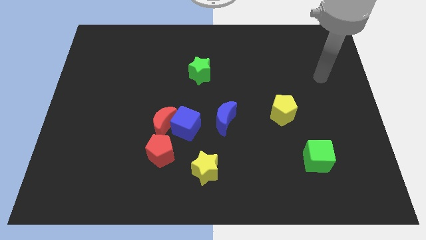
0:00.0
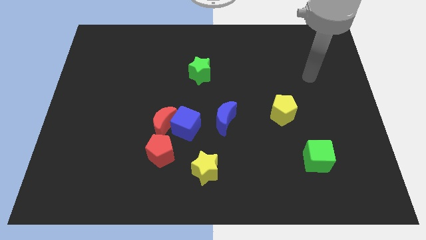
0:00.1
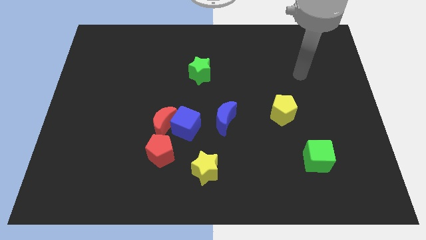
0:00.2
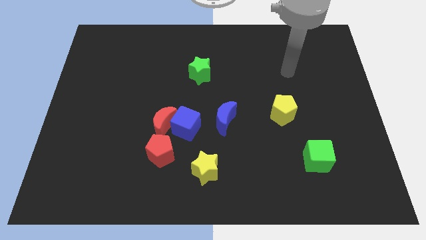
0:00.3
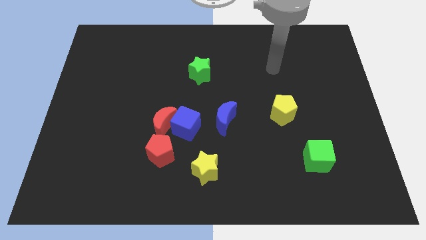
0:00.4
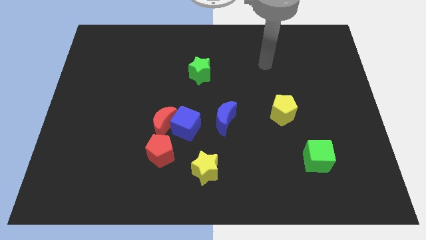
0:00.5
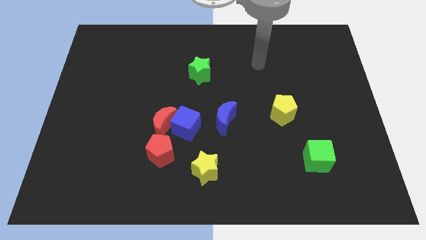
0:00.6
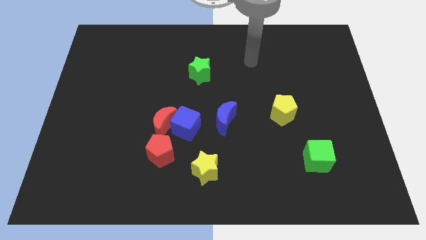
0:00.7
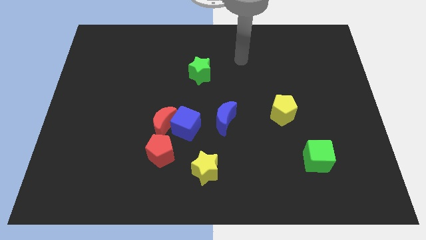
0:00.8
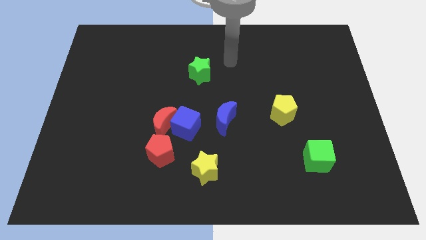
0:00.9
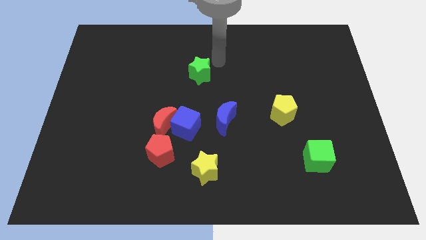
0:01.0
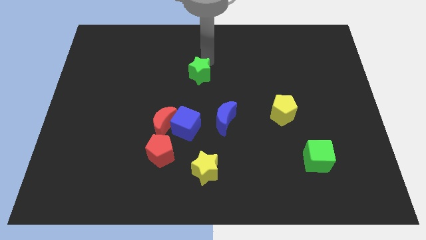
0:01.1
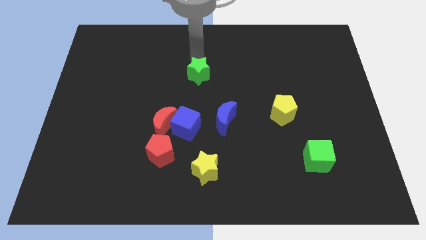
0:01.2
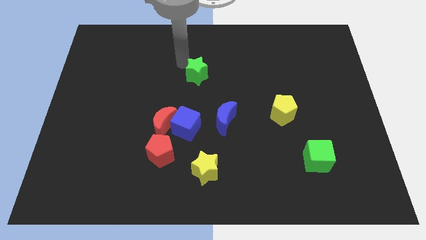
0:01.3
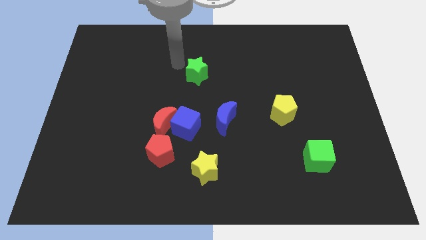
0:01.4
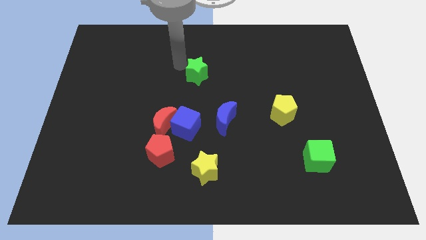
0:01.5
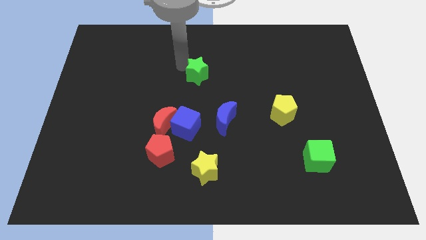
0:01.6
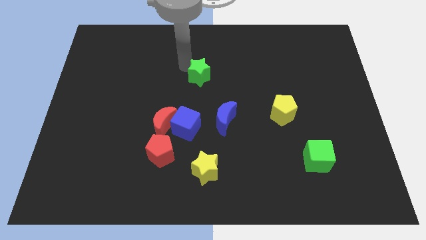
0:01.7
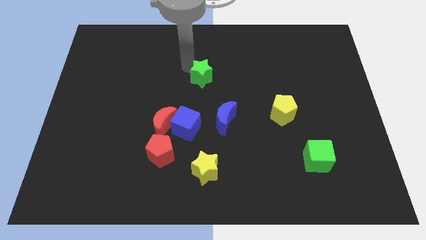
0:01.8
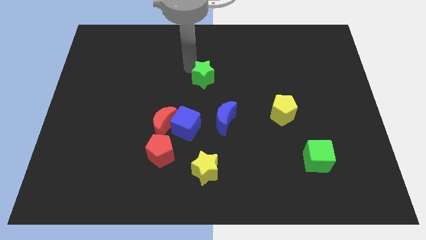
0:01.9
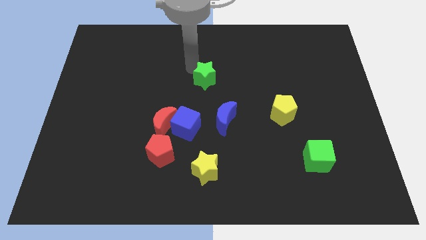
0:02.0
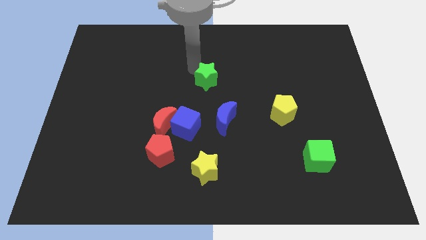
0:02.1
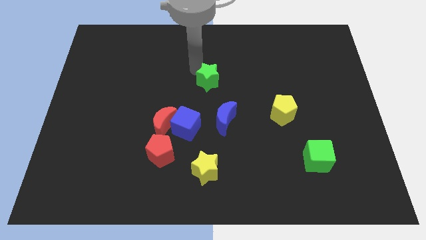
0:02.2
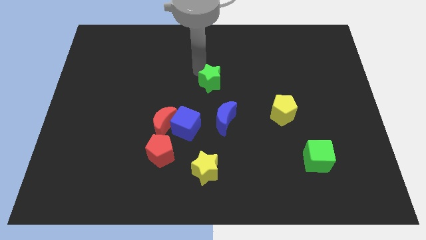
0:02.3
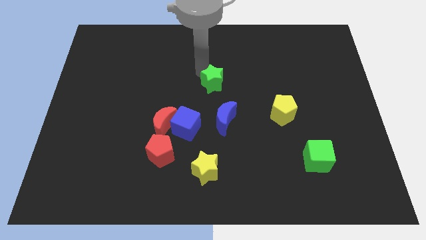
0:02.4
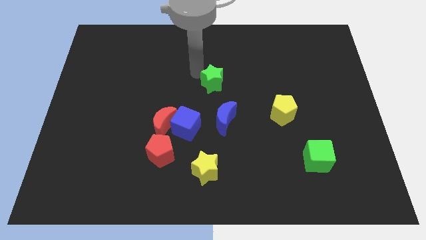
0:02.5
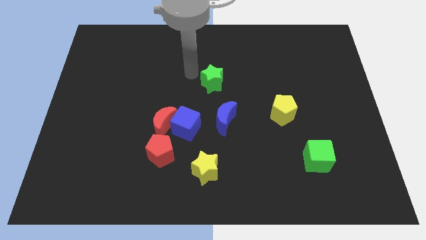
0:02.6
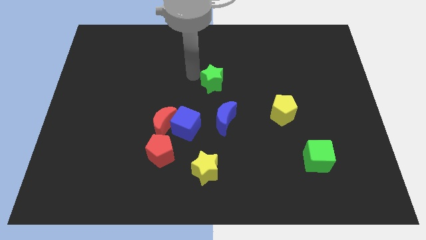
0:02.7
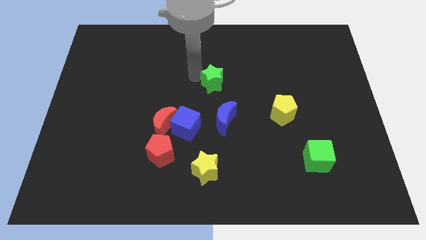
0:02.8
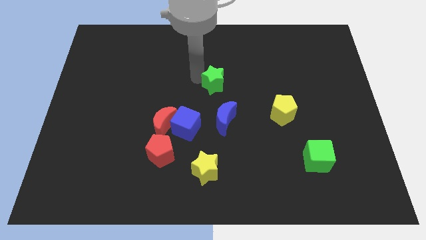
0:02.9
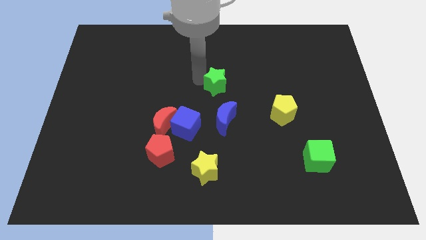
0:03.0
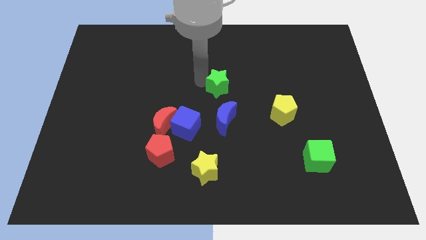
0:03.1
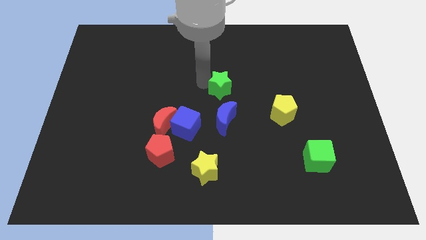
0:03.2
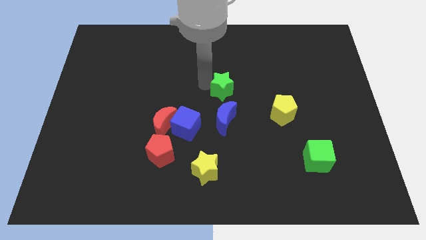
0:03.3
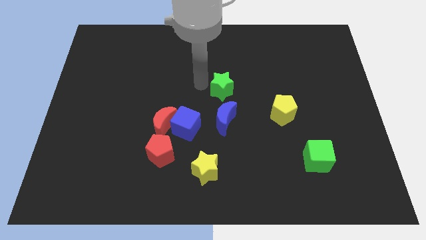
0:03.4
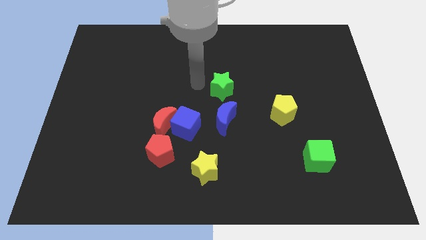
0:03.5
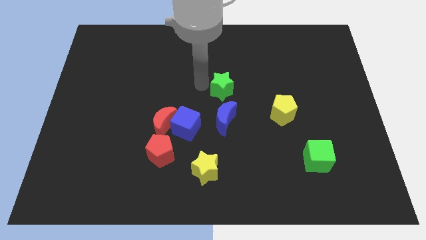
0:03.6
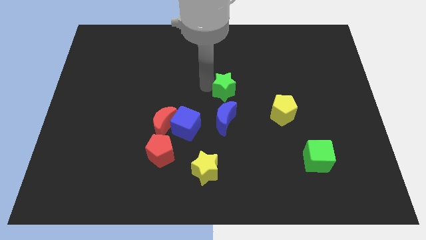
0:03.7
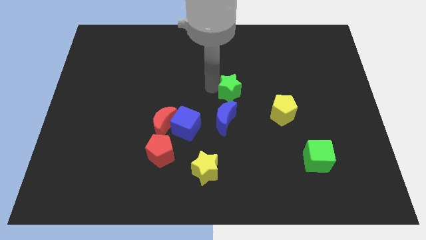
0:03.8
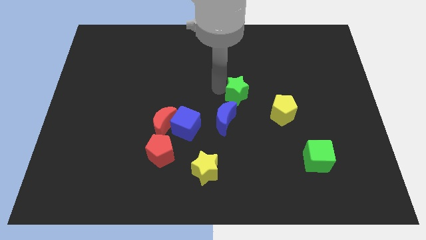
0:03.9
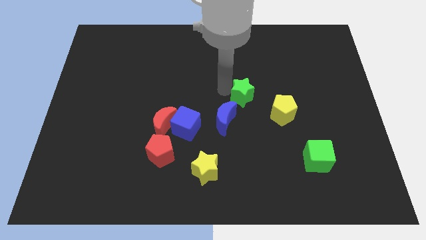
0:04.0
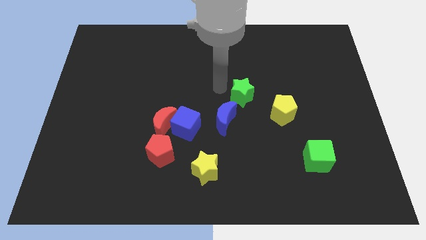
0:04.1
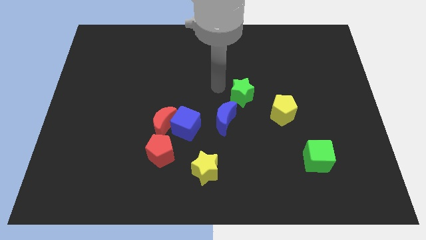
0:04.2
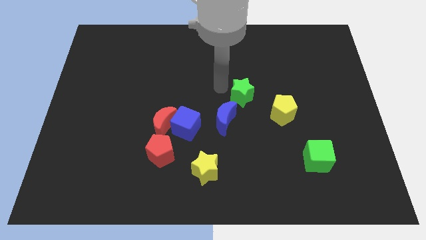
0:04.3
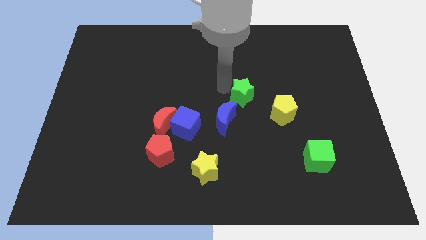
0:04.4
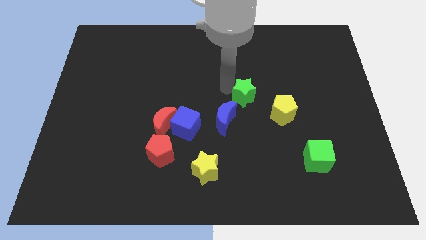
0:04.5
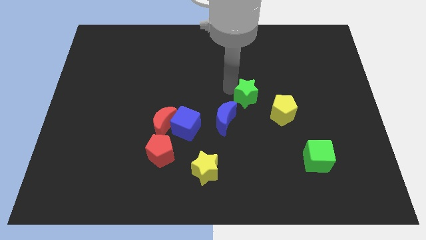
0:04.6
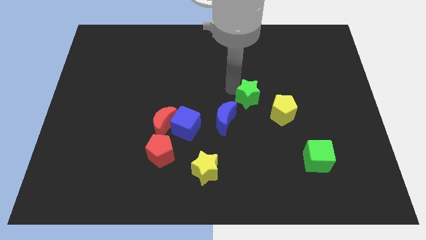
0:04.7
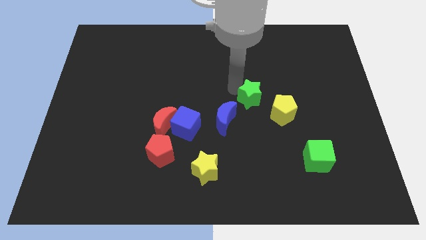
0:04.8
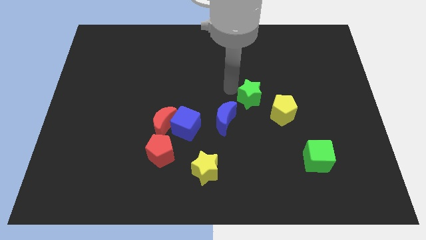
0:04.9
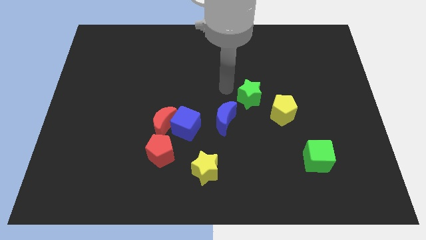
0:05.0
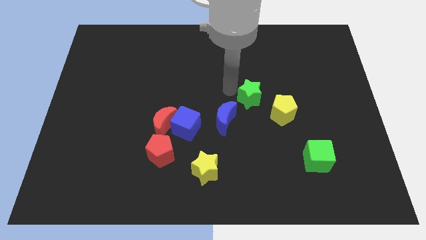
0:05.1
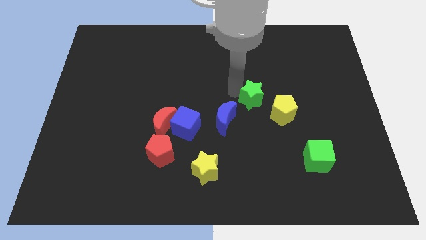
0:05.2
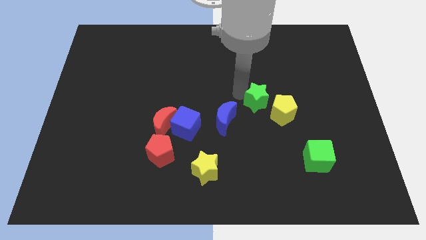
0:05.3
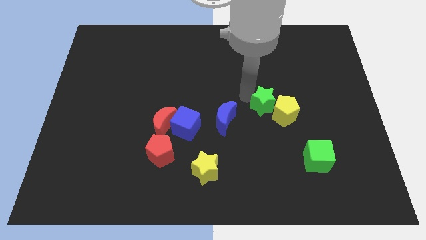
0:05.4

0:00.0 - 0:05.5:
put the green star to the yellow pentagon

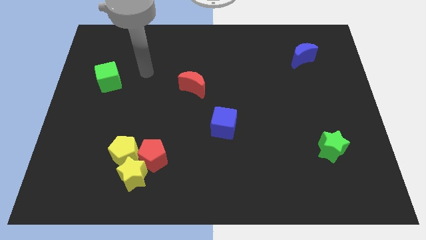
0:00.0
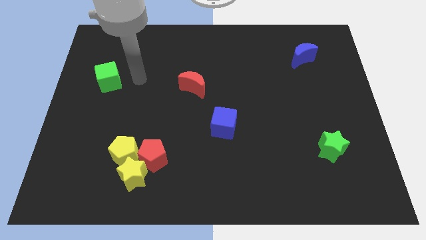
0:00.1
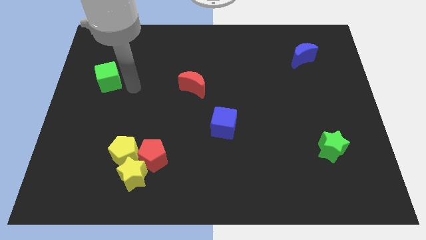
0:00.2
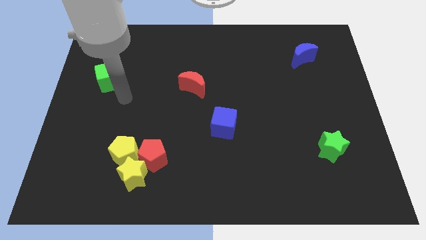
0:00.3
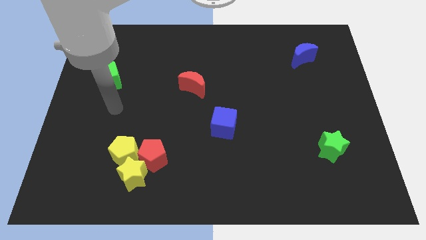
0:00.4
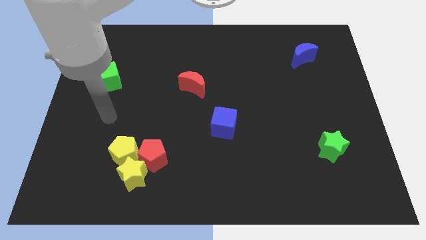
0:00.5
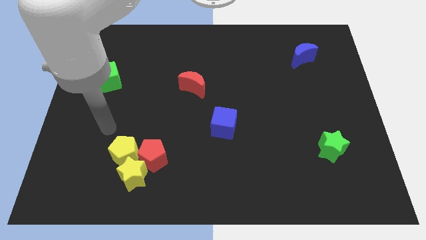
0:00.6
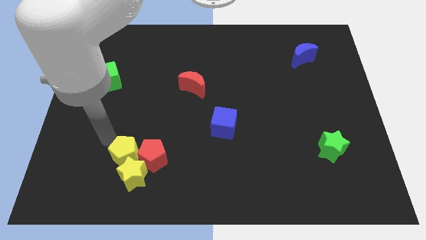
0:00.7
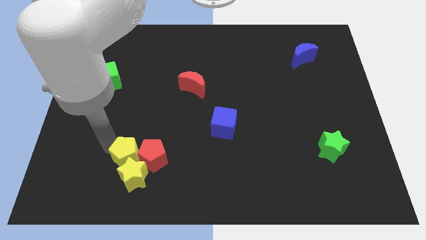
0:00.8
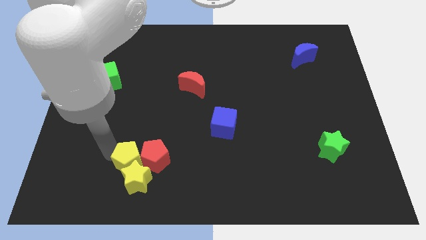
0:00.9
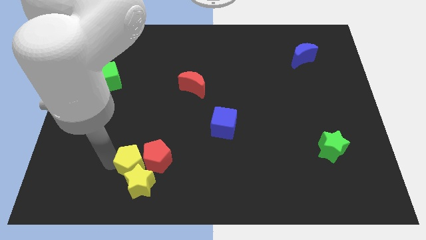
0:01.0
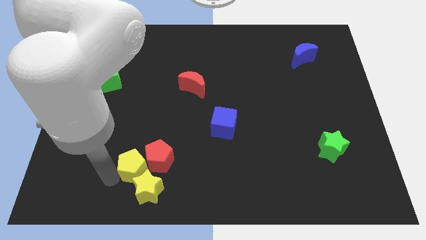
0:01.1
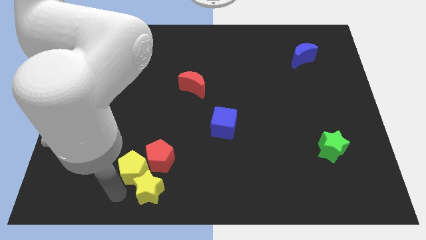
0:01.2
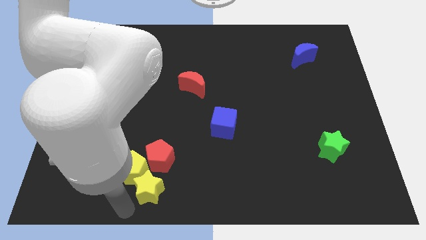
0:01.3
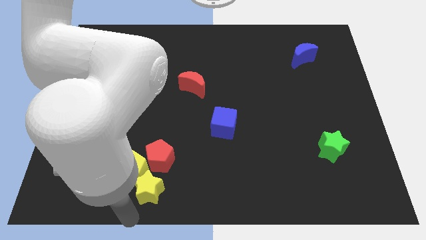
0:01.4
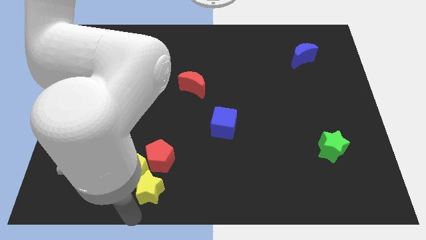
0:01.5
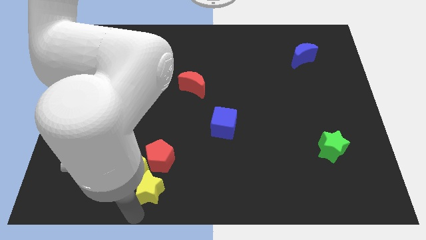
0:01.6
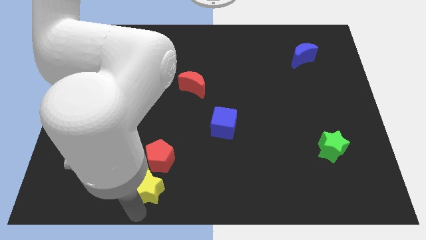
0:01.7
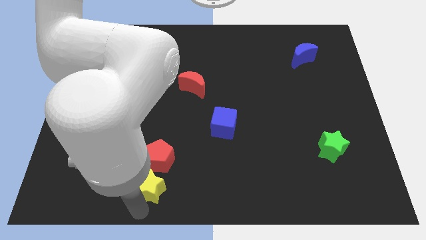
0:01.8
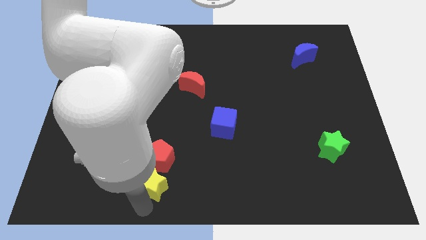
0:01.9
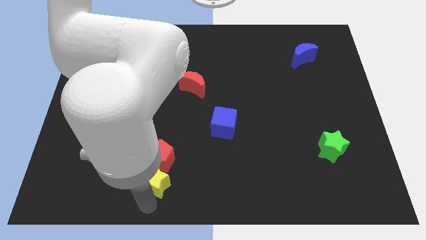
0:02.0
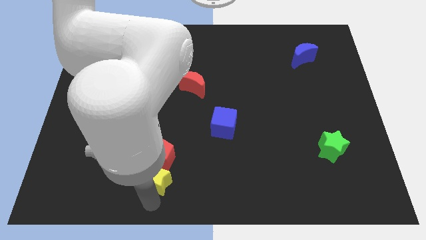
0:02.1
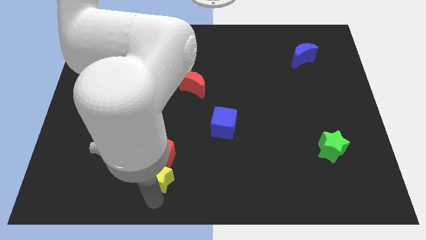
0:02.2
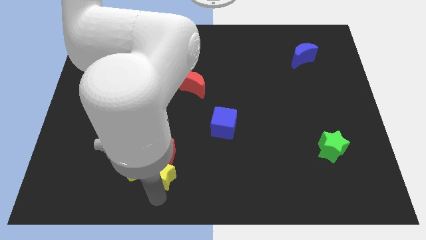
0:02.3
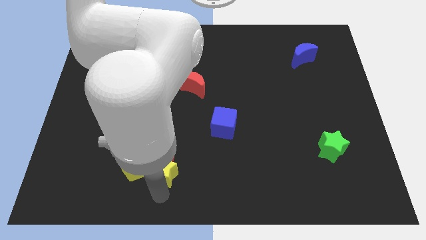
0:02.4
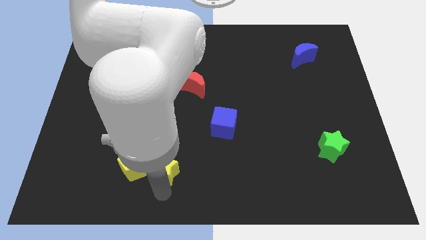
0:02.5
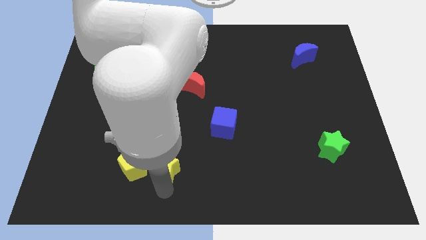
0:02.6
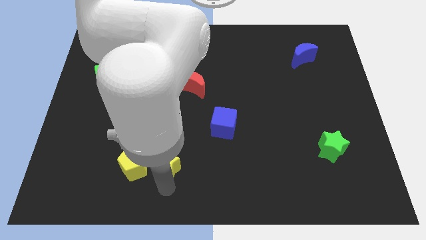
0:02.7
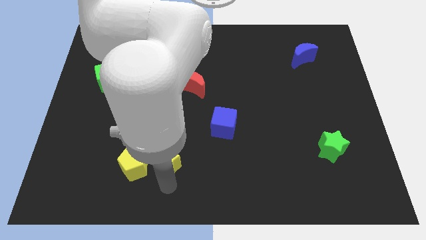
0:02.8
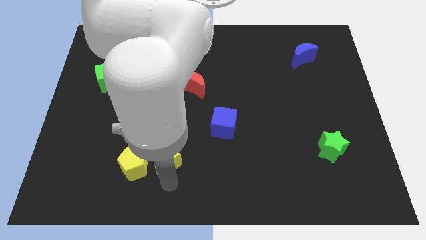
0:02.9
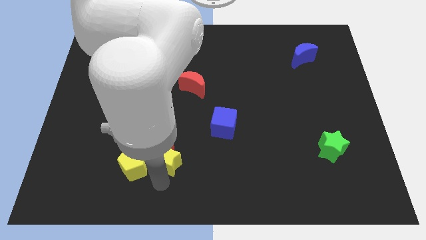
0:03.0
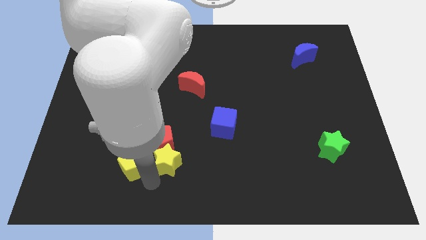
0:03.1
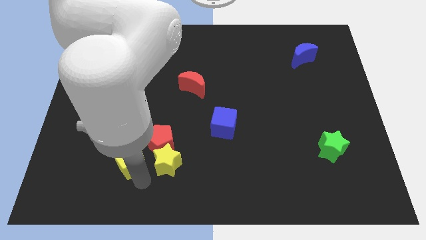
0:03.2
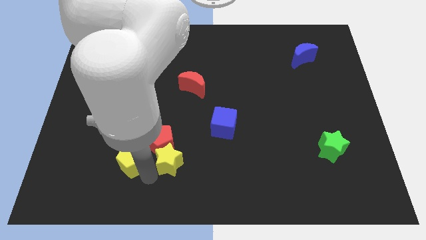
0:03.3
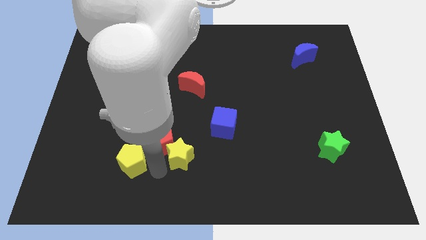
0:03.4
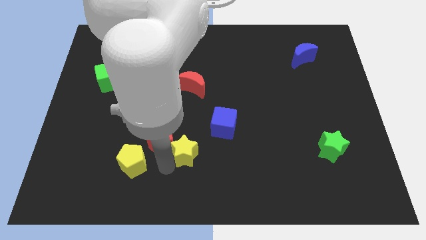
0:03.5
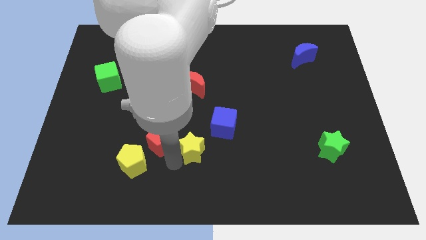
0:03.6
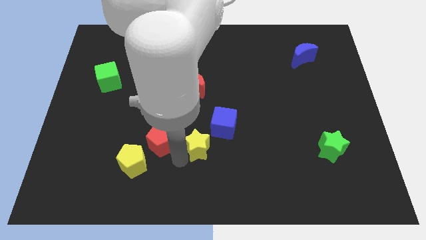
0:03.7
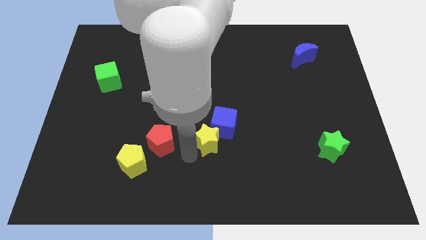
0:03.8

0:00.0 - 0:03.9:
slide the yellow star to the blue cube
